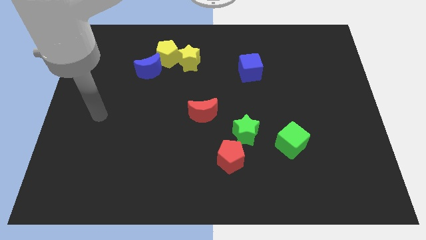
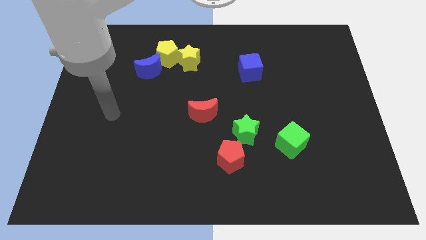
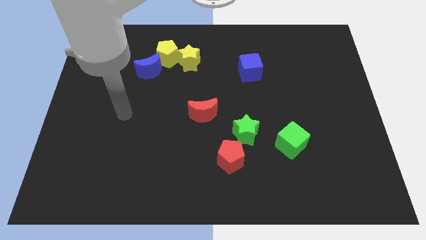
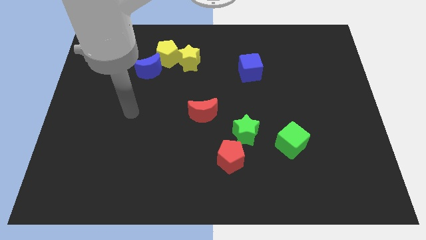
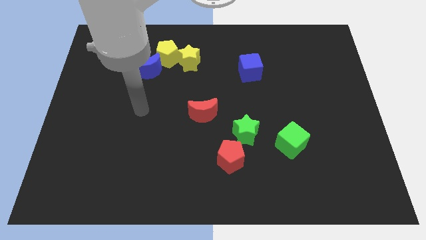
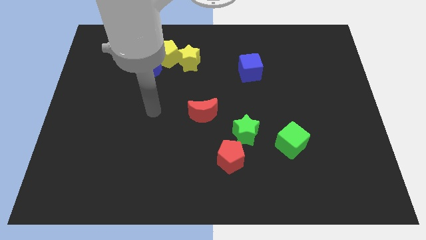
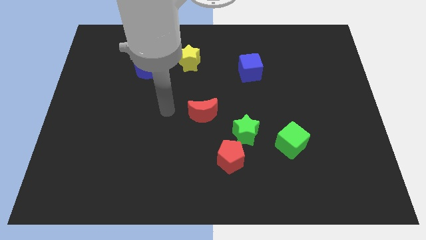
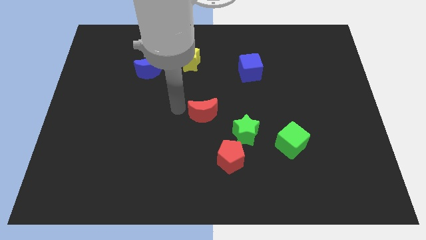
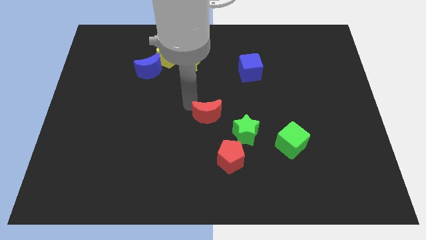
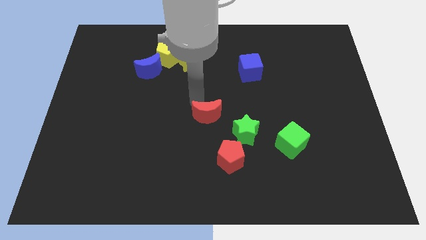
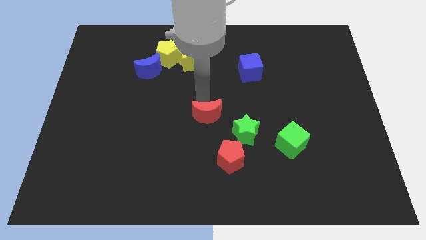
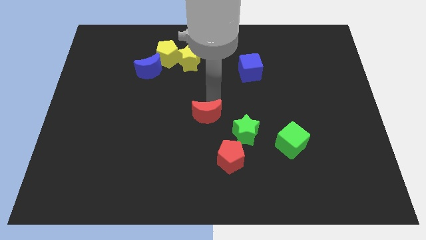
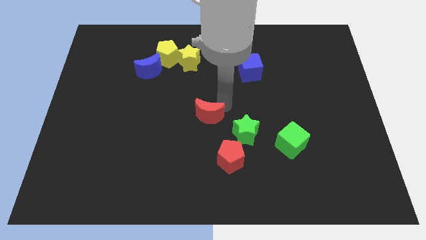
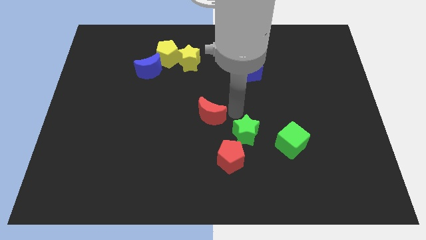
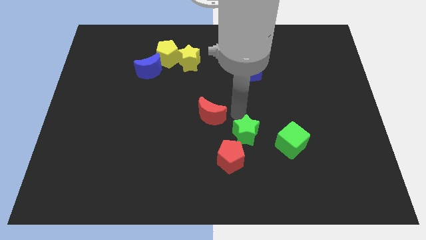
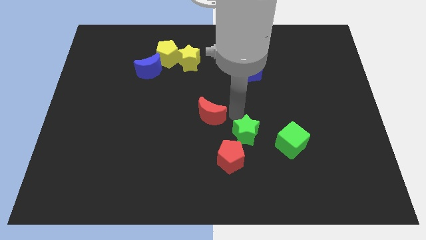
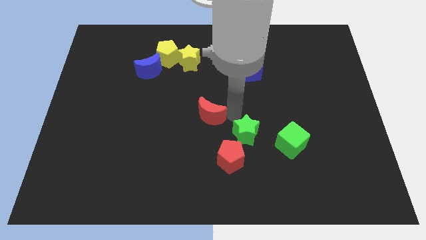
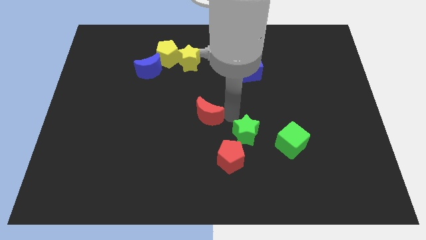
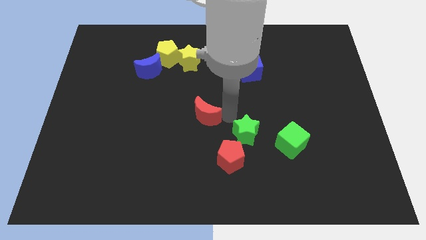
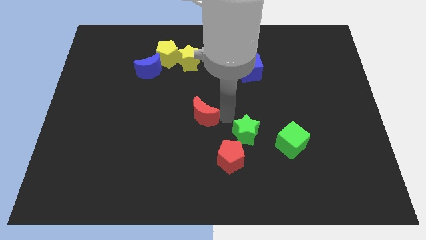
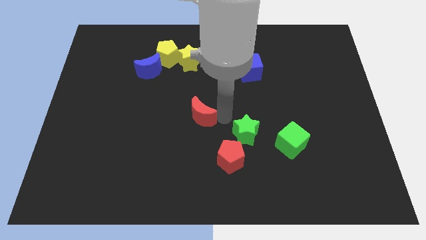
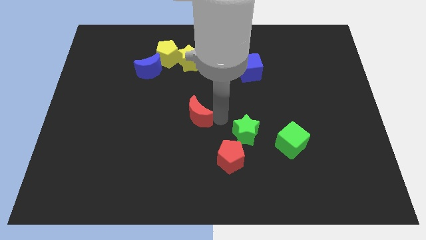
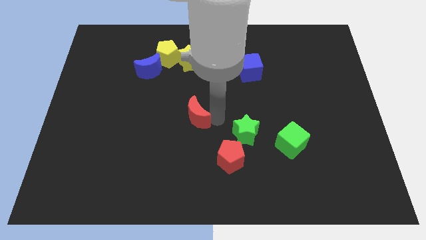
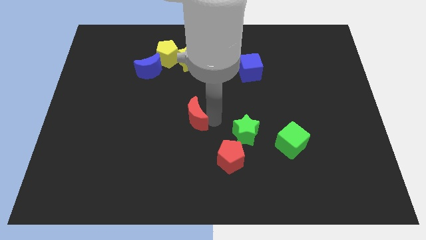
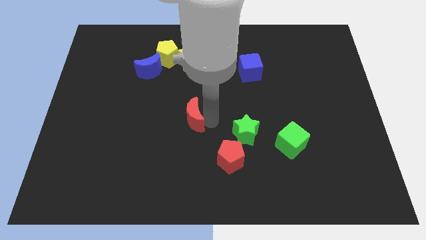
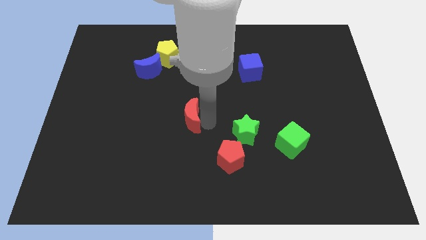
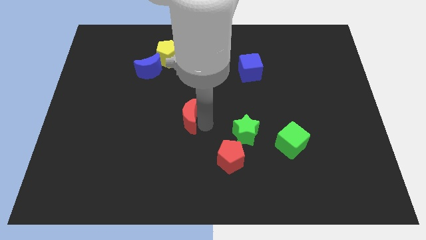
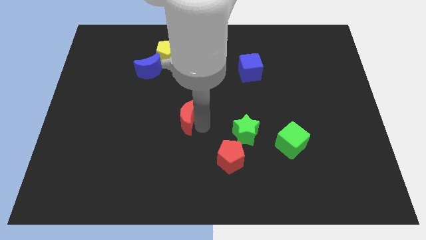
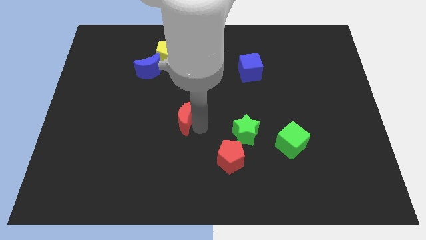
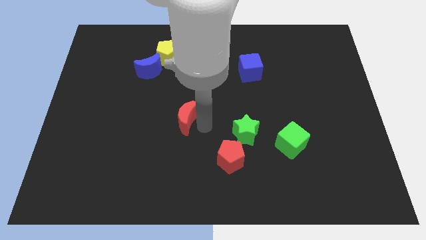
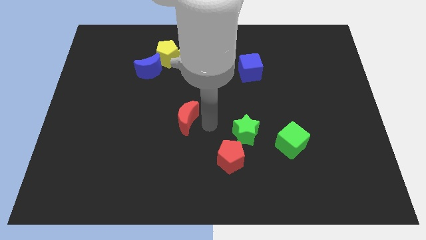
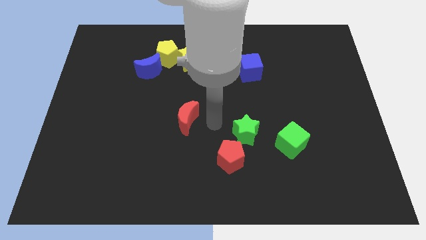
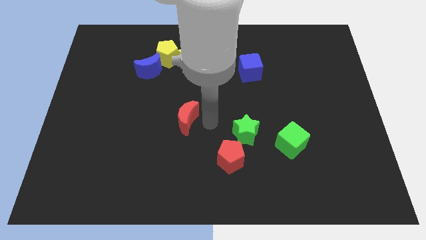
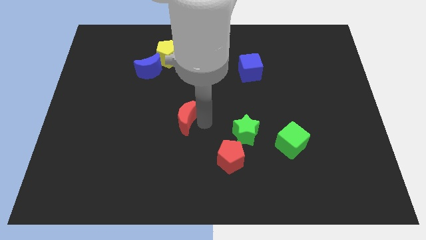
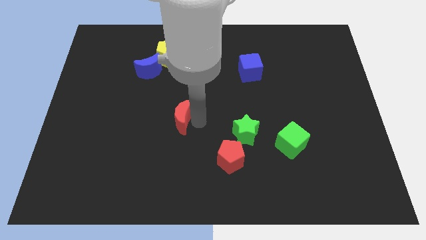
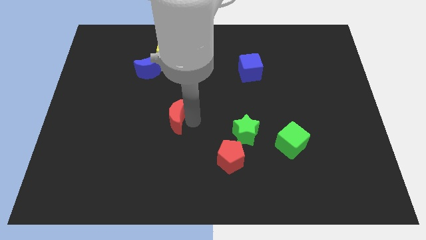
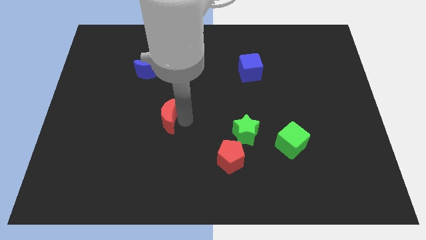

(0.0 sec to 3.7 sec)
slide the red moon somewhat to the left

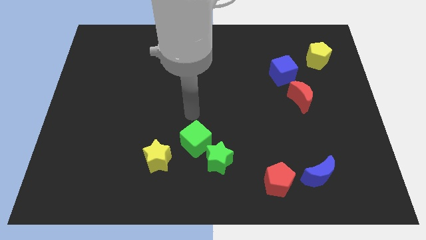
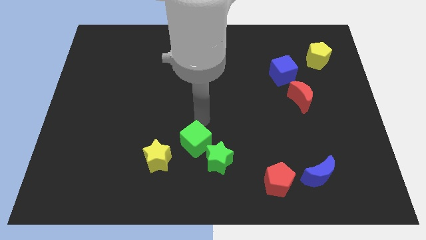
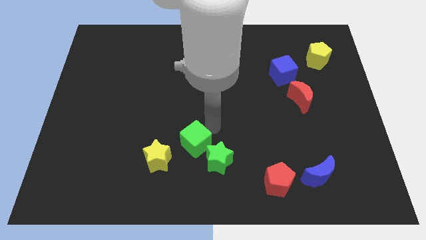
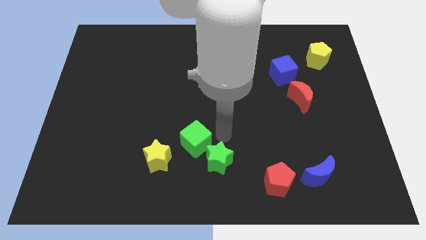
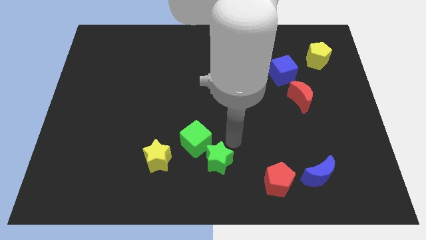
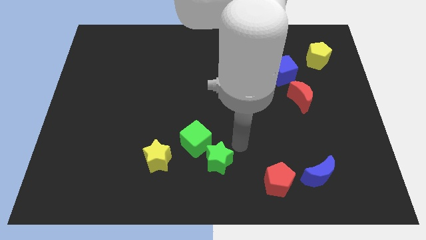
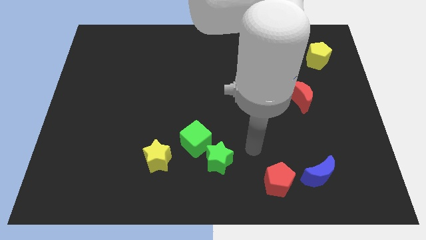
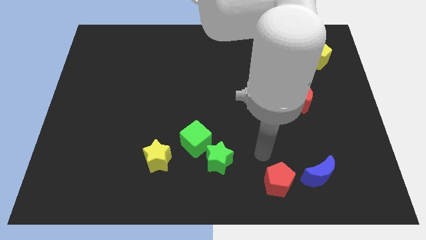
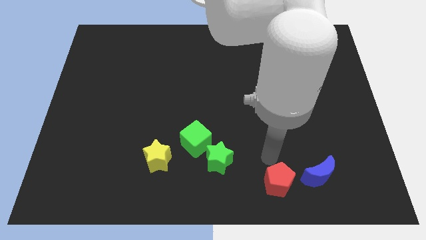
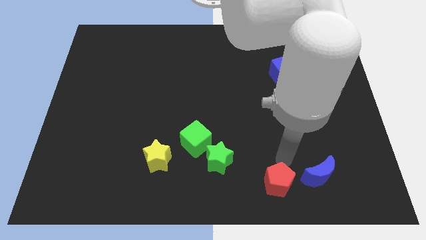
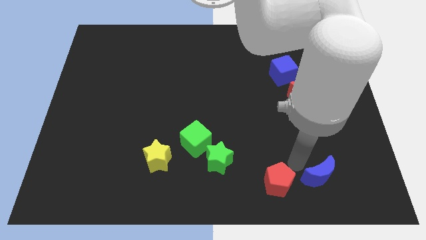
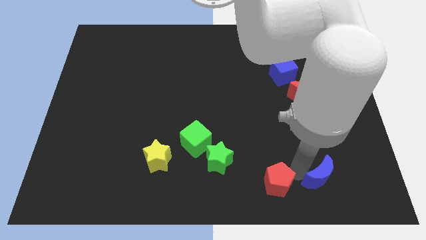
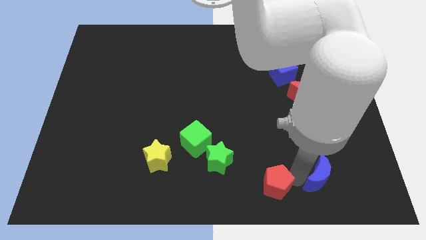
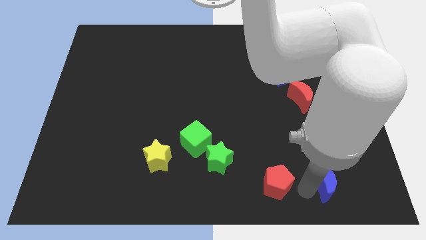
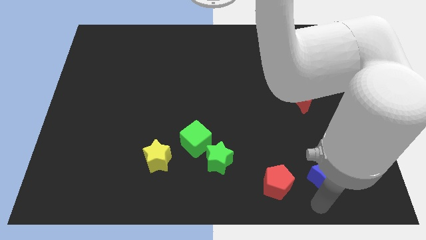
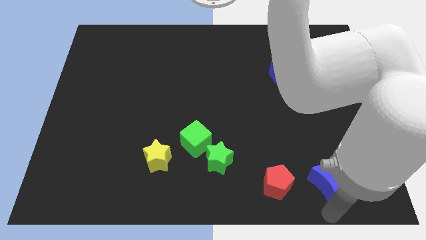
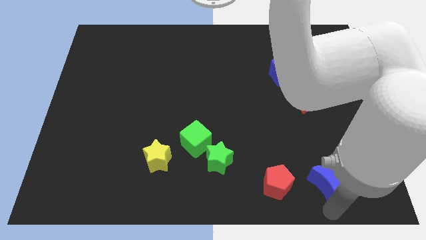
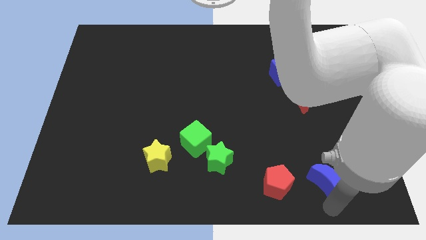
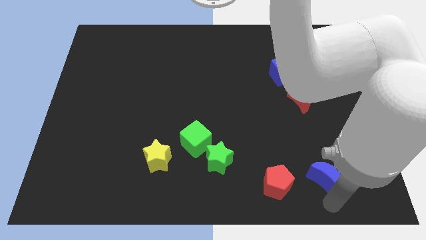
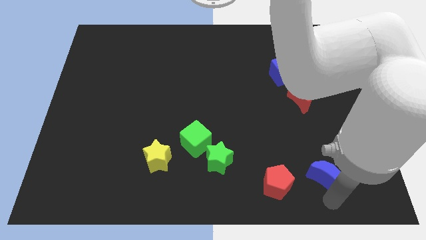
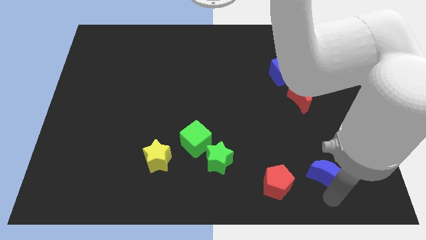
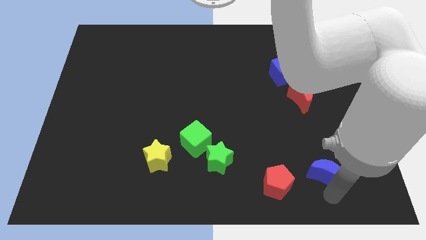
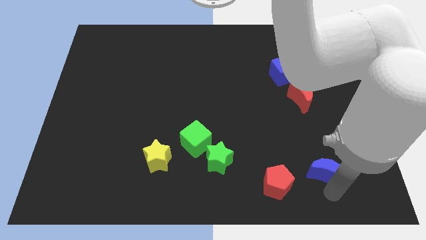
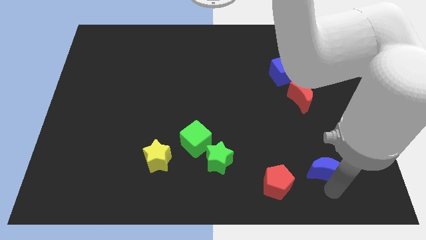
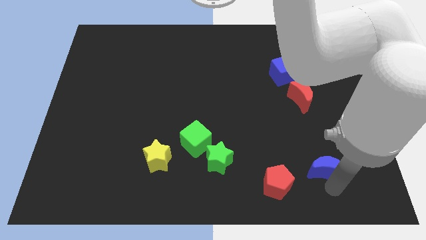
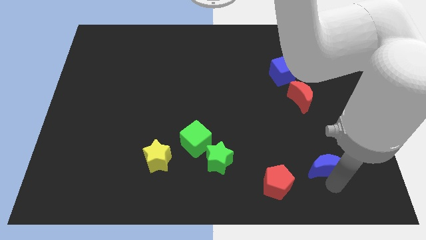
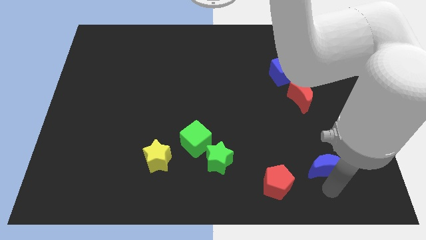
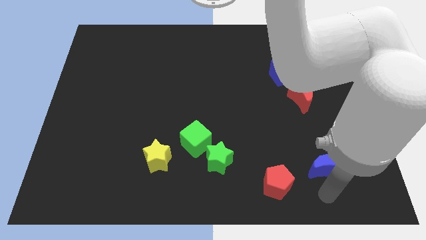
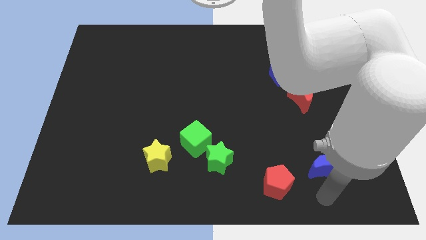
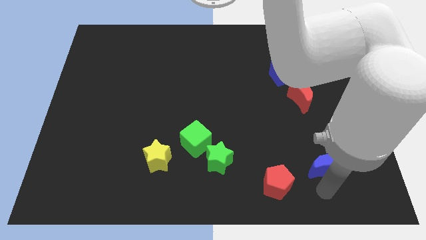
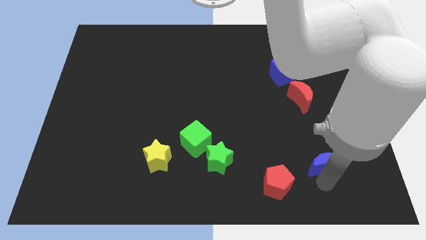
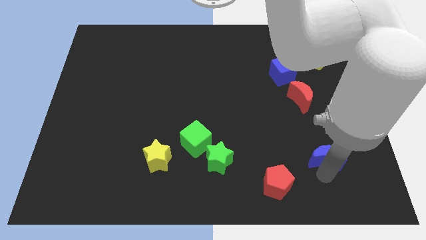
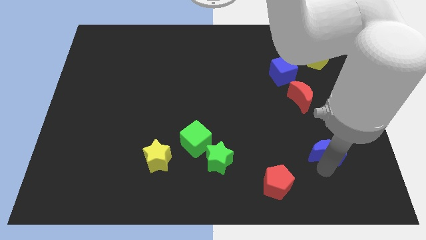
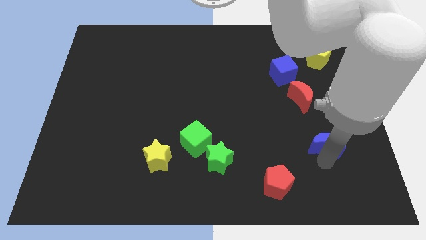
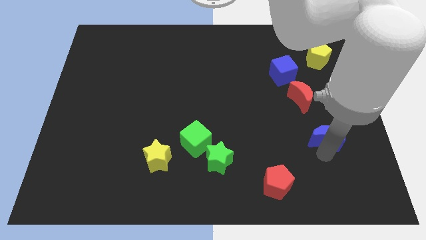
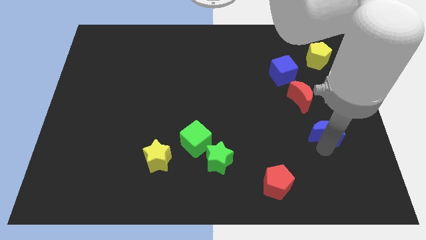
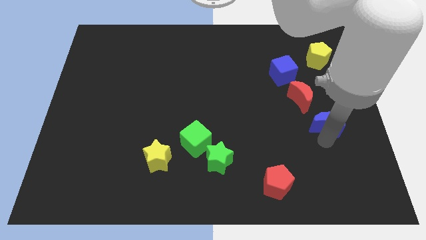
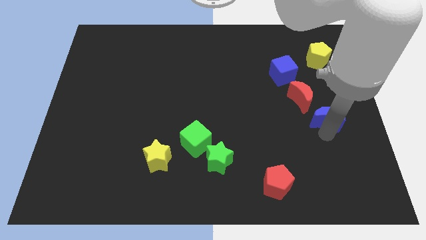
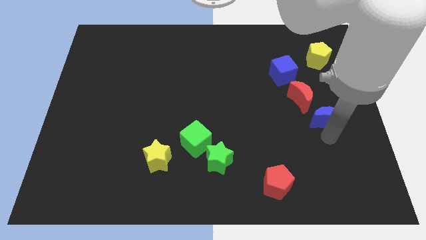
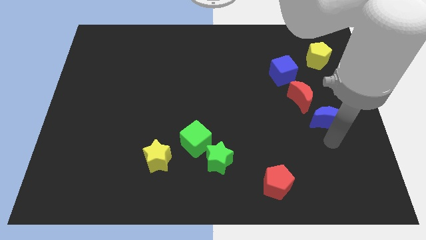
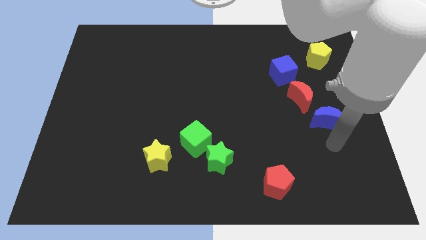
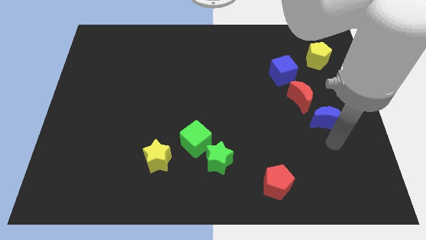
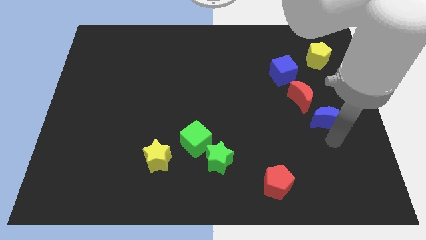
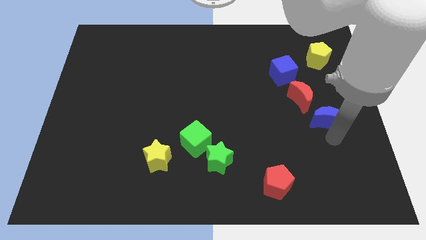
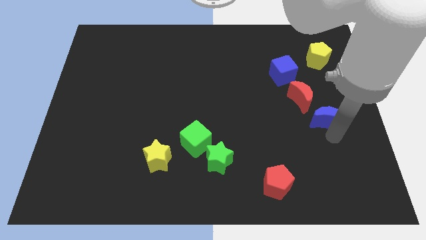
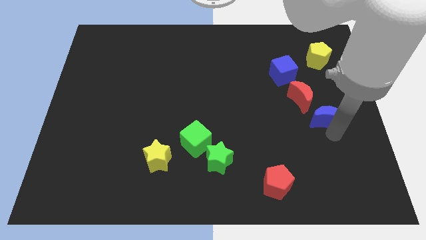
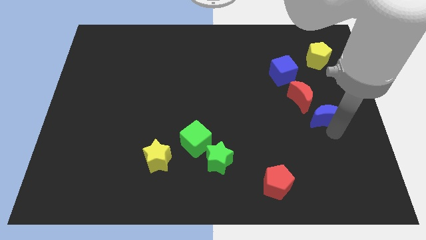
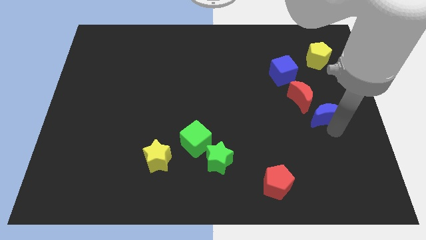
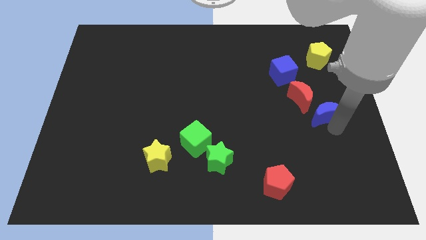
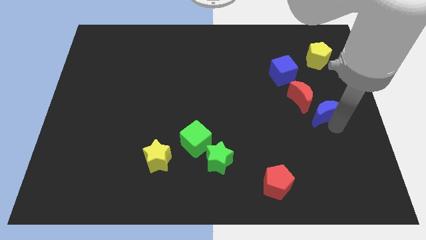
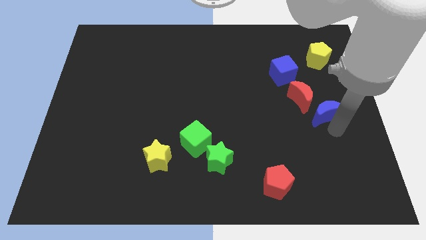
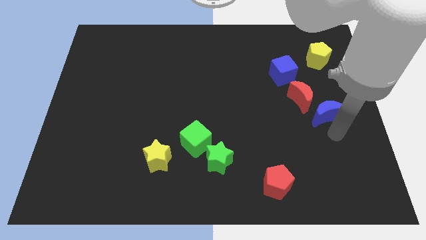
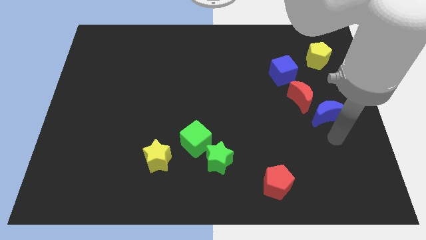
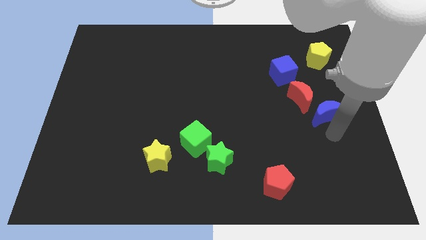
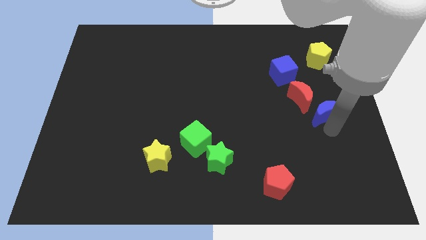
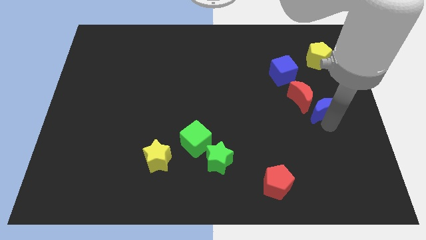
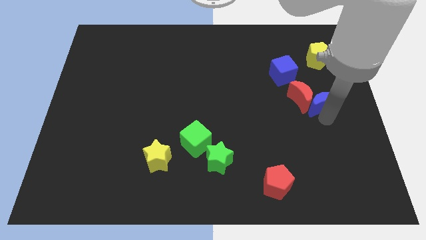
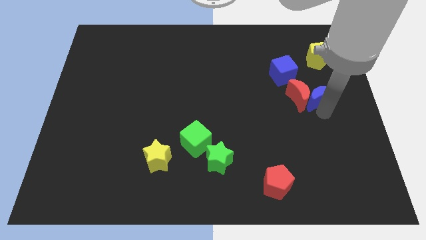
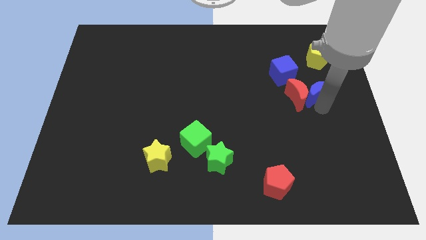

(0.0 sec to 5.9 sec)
push the blue moon up
